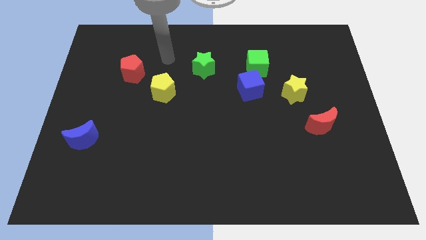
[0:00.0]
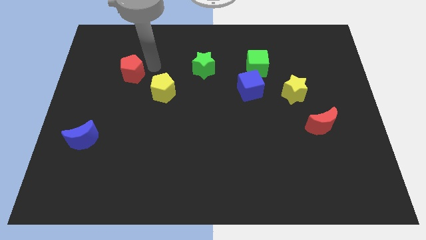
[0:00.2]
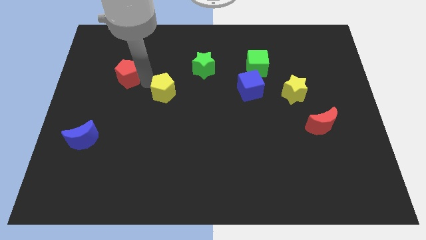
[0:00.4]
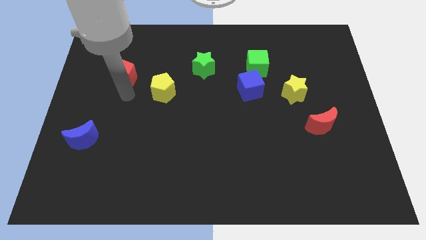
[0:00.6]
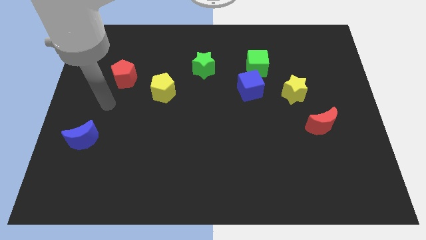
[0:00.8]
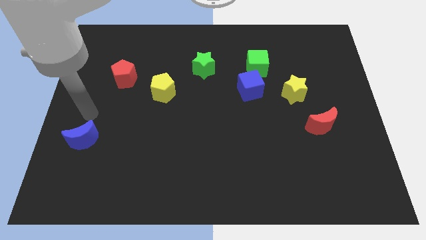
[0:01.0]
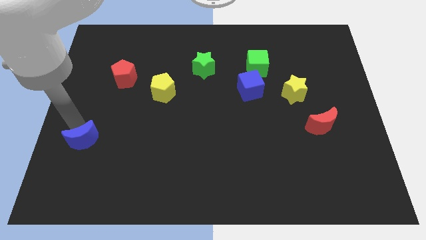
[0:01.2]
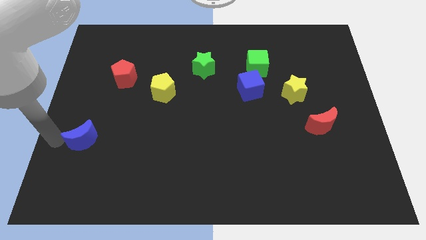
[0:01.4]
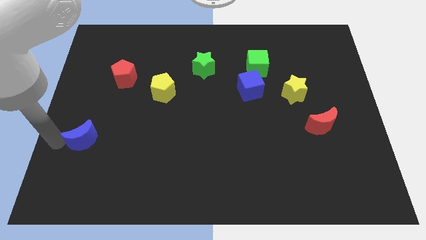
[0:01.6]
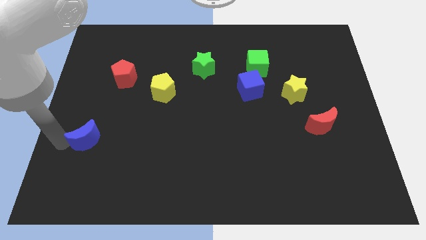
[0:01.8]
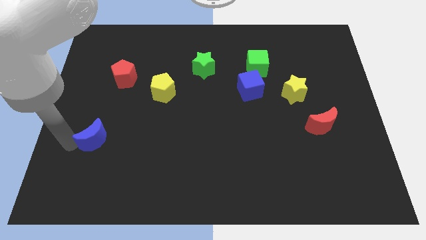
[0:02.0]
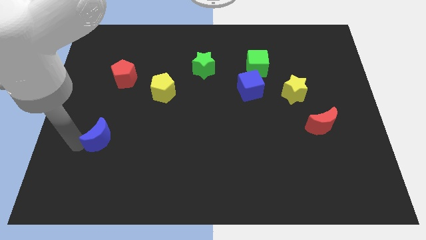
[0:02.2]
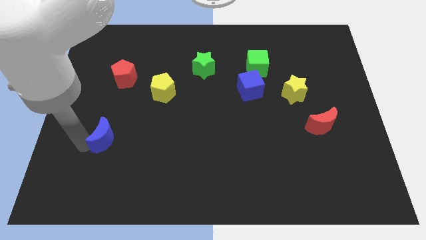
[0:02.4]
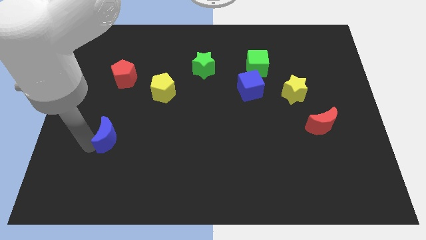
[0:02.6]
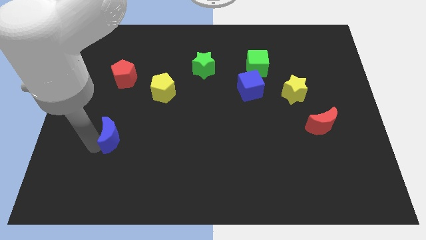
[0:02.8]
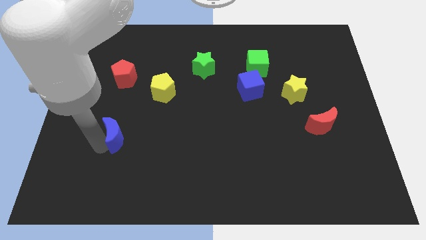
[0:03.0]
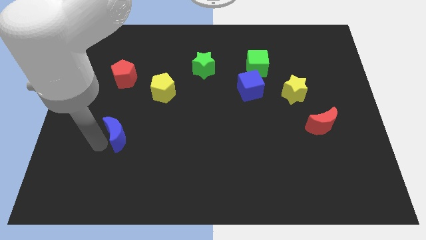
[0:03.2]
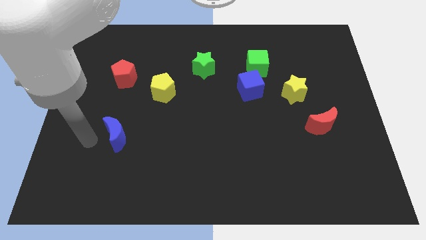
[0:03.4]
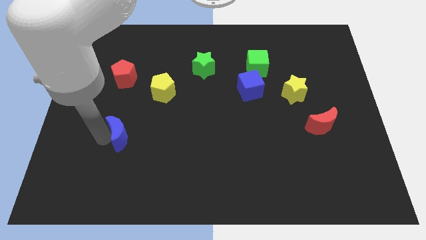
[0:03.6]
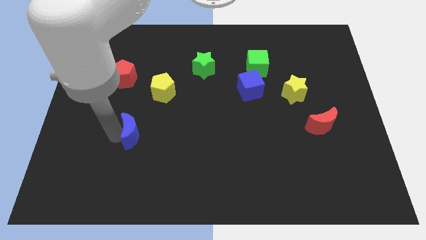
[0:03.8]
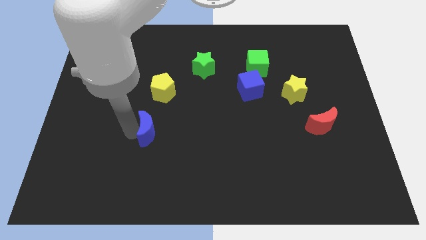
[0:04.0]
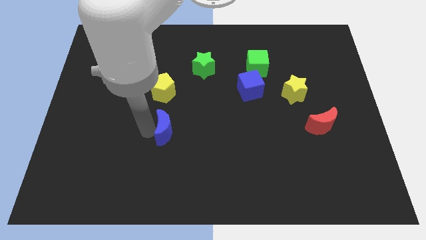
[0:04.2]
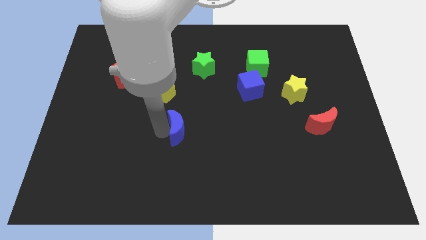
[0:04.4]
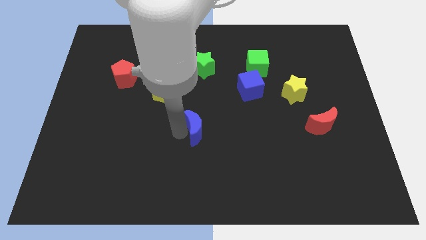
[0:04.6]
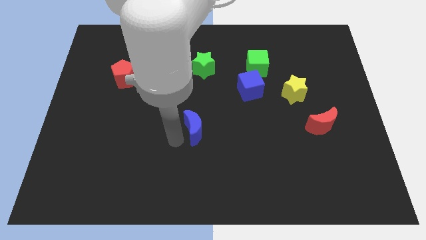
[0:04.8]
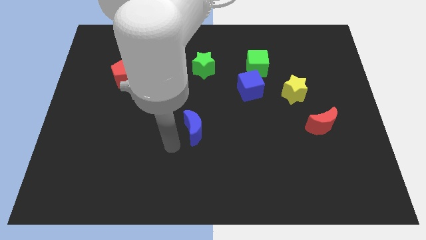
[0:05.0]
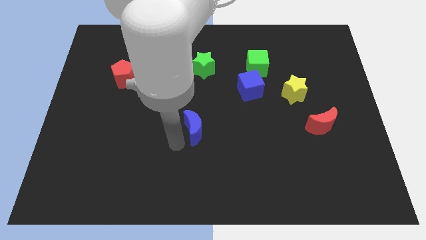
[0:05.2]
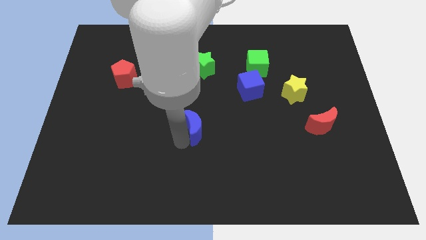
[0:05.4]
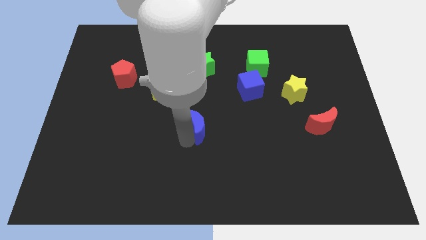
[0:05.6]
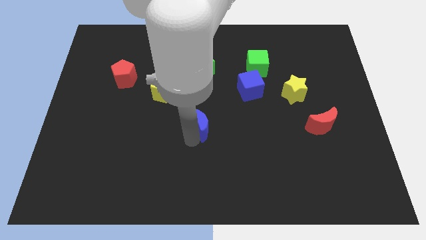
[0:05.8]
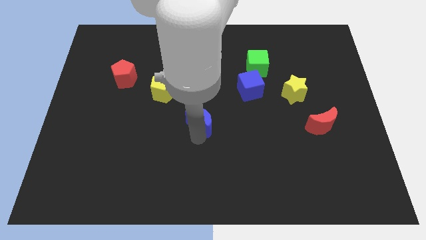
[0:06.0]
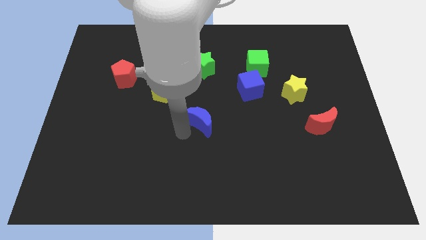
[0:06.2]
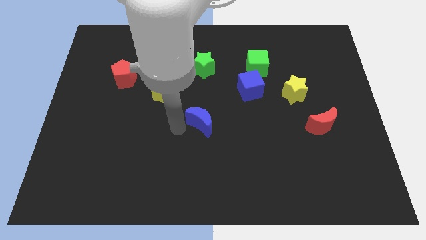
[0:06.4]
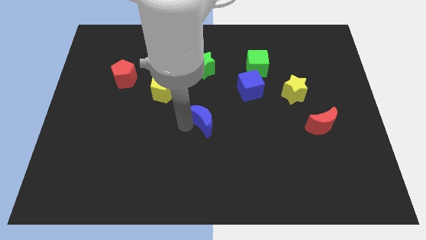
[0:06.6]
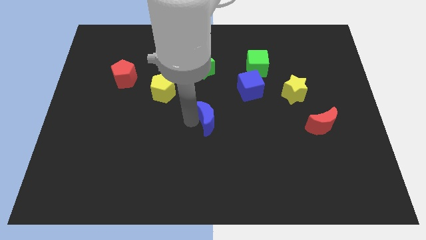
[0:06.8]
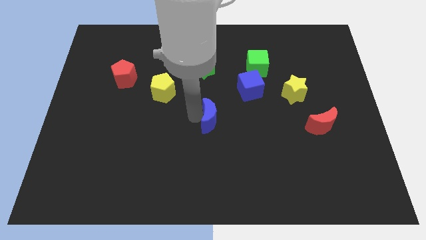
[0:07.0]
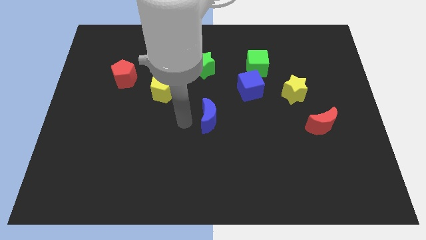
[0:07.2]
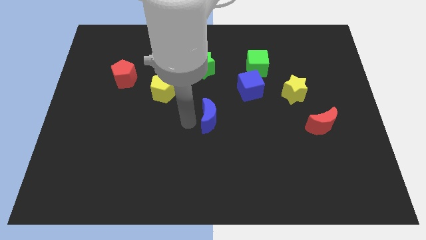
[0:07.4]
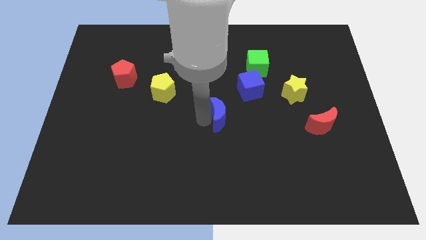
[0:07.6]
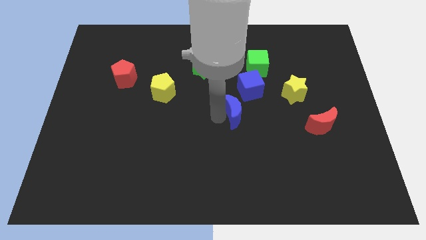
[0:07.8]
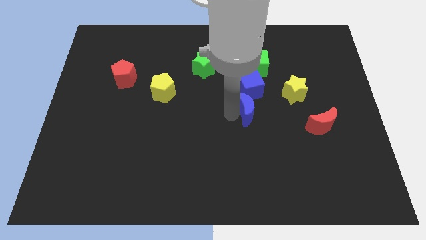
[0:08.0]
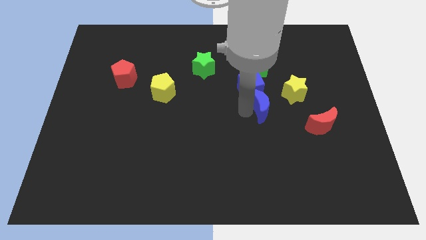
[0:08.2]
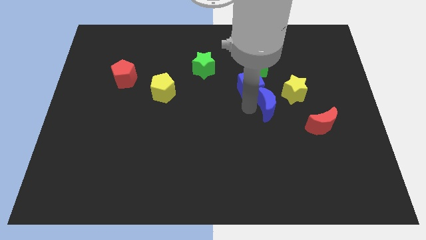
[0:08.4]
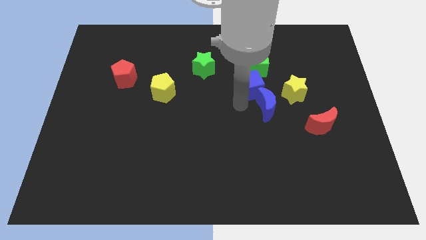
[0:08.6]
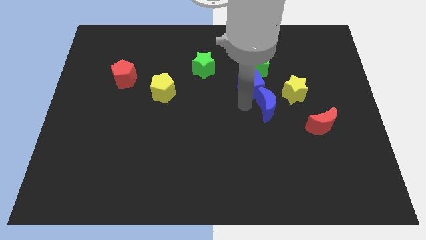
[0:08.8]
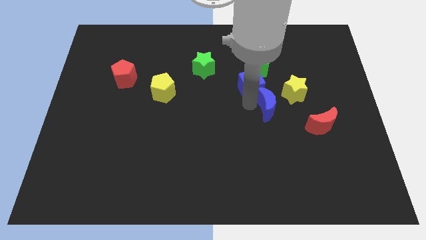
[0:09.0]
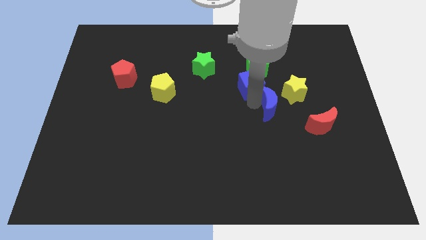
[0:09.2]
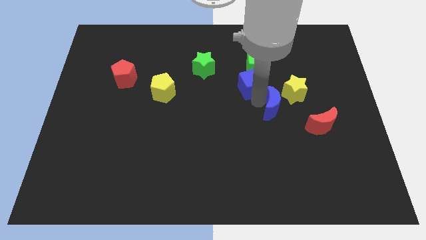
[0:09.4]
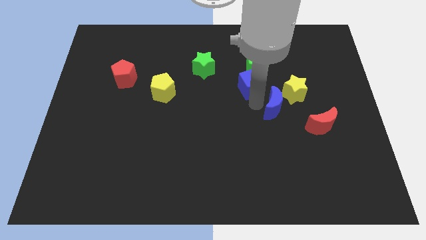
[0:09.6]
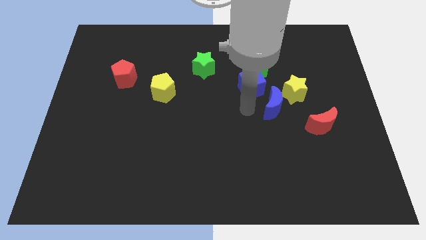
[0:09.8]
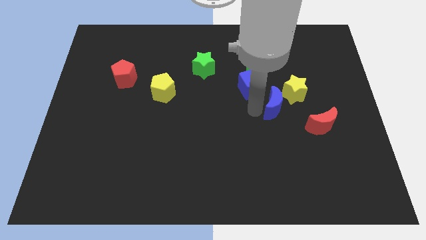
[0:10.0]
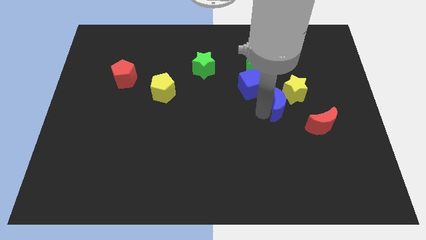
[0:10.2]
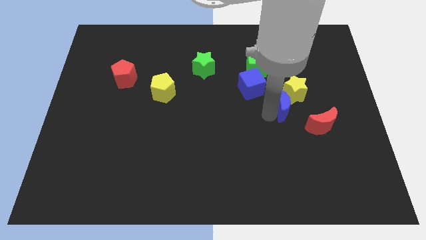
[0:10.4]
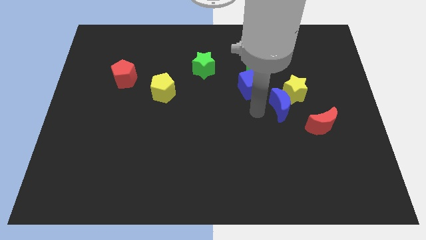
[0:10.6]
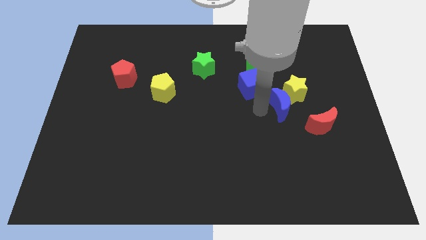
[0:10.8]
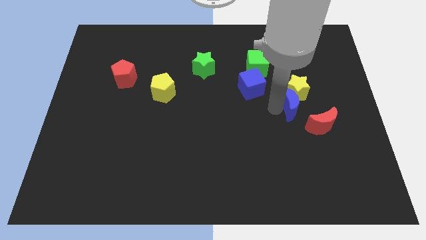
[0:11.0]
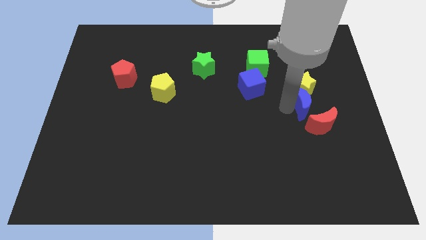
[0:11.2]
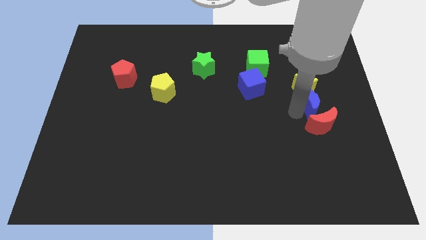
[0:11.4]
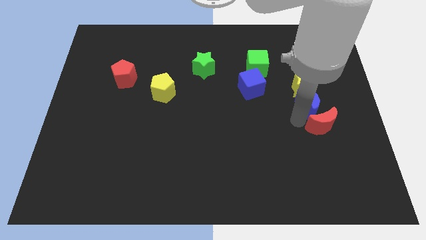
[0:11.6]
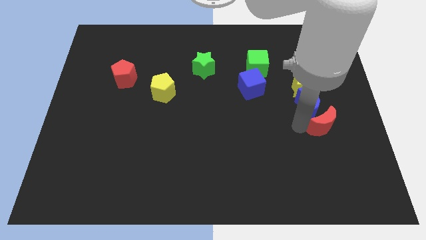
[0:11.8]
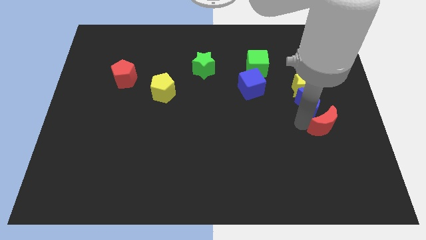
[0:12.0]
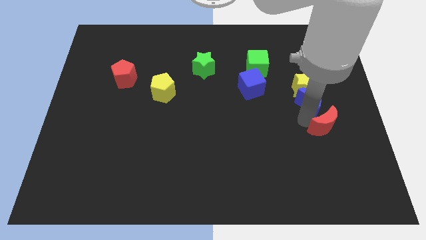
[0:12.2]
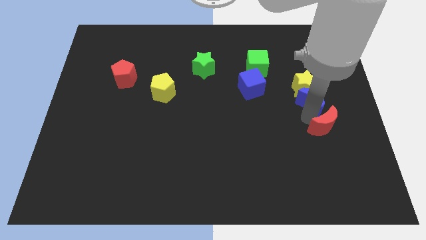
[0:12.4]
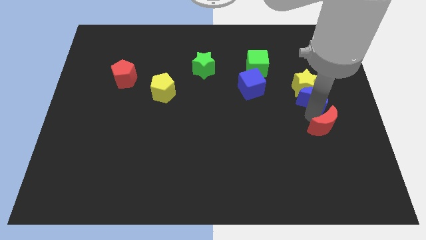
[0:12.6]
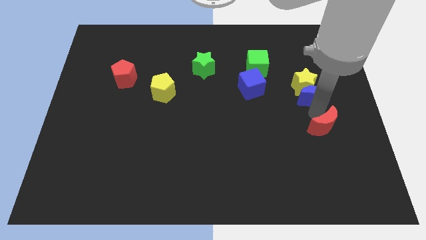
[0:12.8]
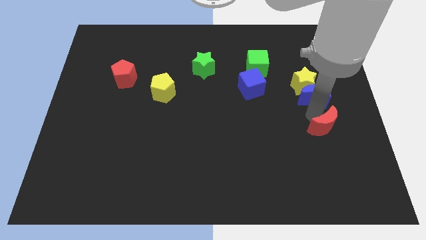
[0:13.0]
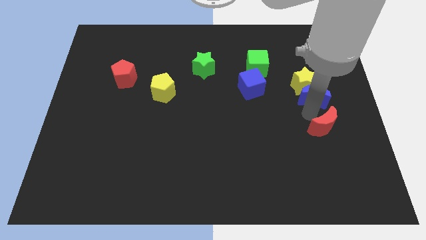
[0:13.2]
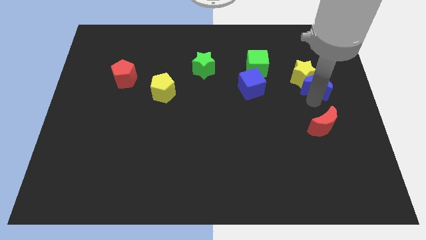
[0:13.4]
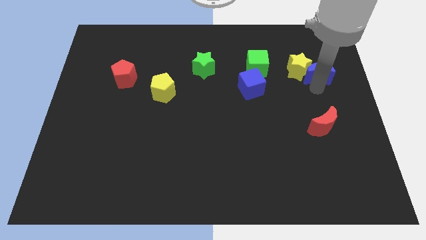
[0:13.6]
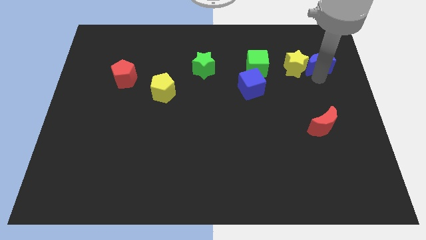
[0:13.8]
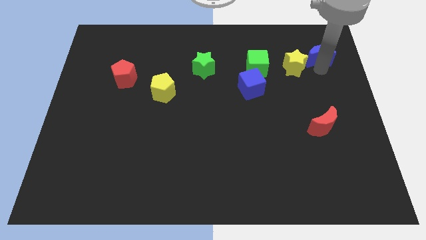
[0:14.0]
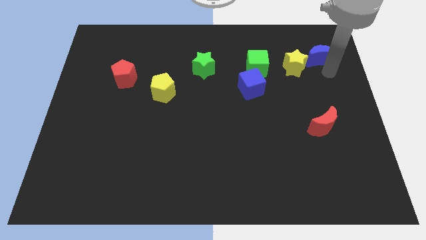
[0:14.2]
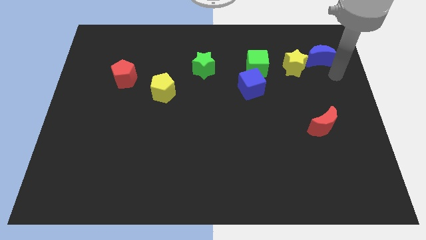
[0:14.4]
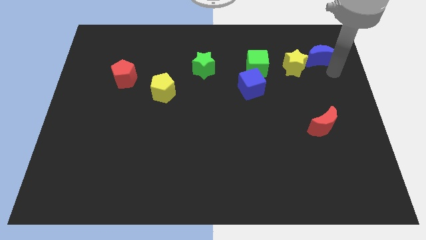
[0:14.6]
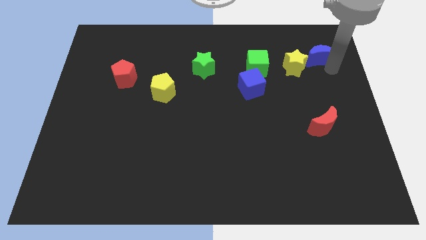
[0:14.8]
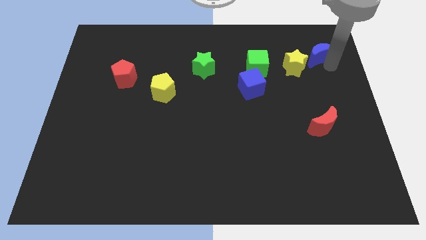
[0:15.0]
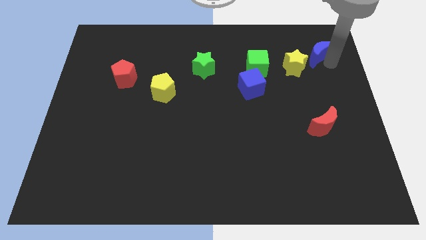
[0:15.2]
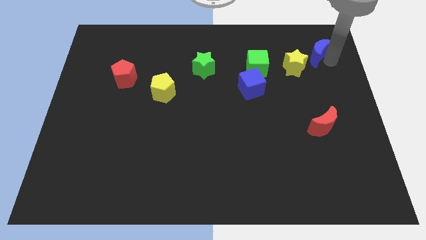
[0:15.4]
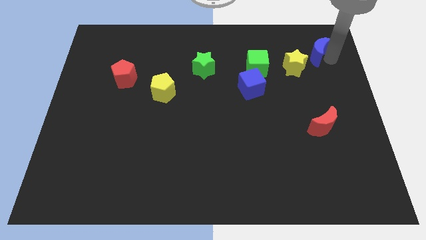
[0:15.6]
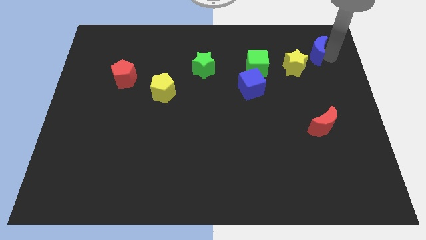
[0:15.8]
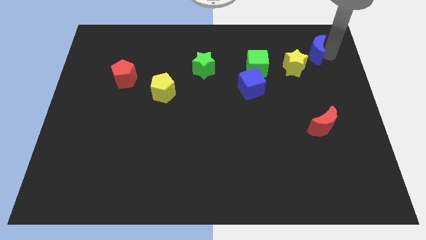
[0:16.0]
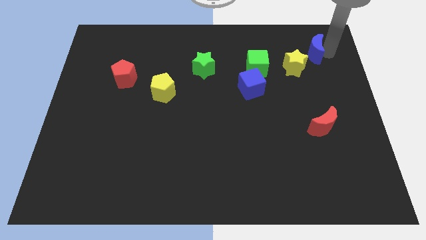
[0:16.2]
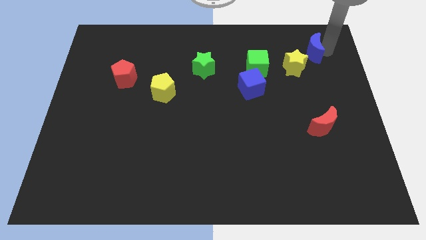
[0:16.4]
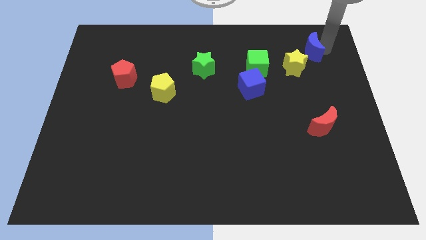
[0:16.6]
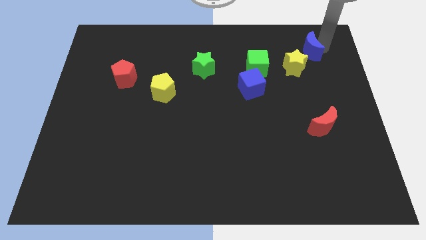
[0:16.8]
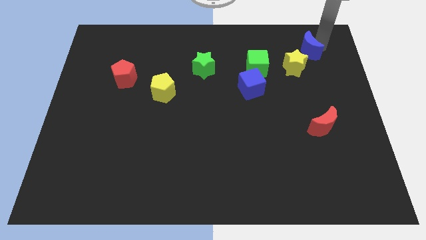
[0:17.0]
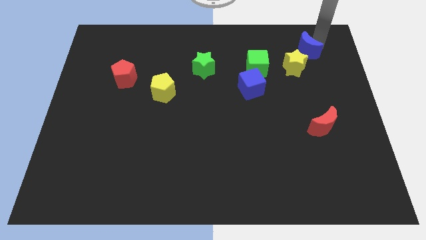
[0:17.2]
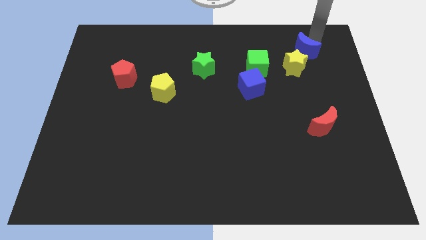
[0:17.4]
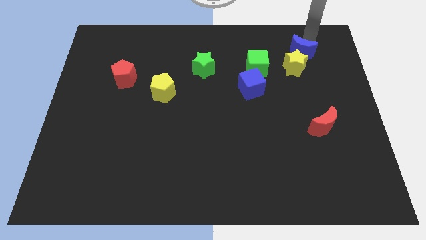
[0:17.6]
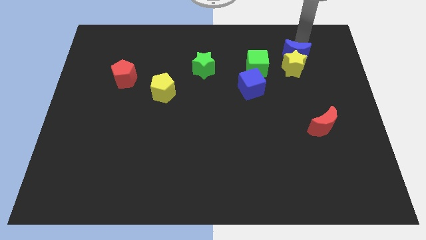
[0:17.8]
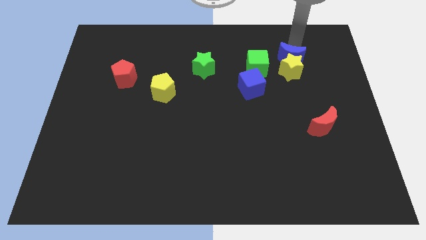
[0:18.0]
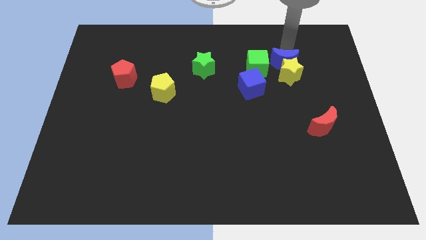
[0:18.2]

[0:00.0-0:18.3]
push the blue moon diagonally up and to the right of the yellow star
